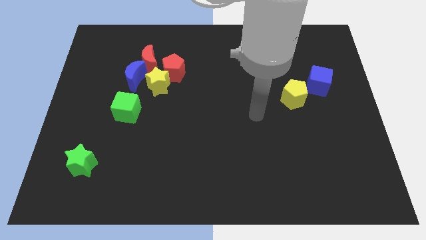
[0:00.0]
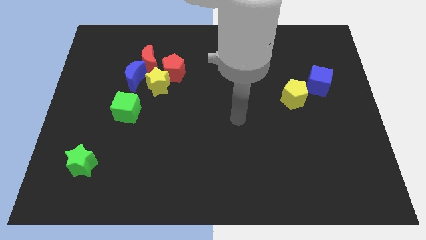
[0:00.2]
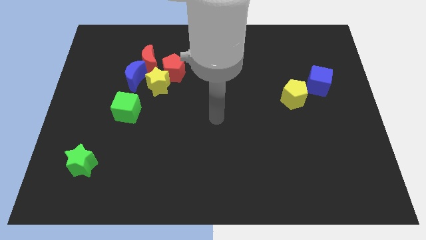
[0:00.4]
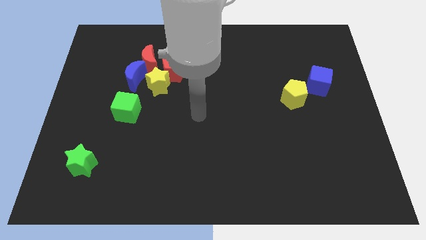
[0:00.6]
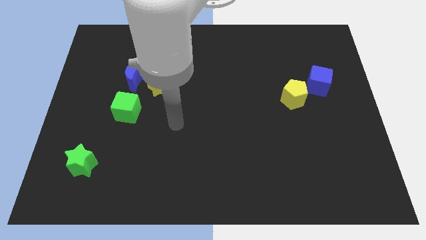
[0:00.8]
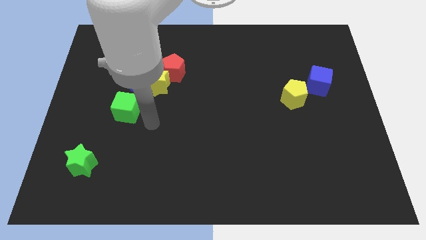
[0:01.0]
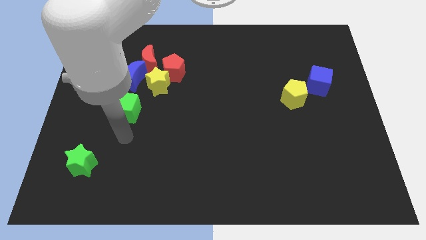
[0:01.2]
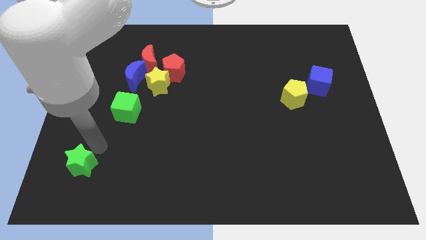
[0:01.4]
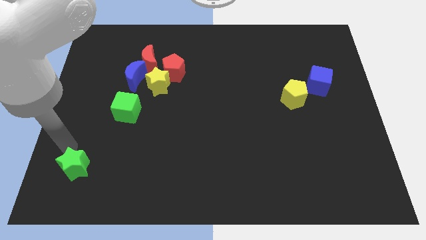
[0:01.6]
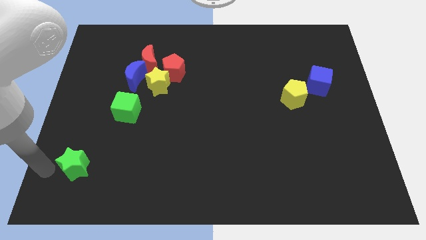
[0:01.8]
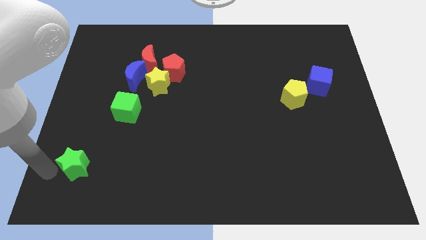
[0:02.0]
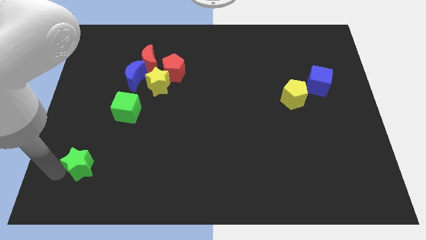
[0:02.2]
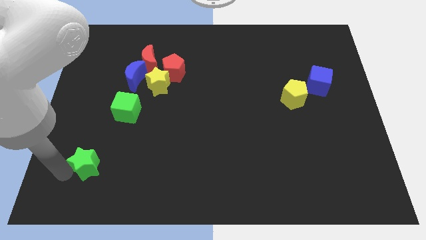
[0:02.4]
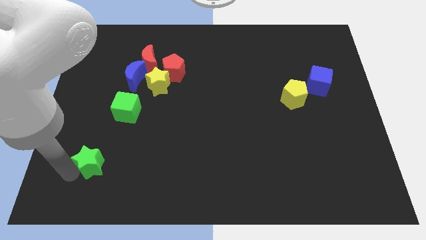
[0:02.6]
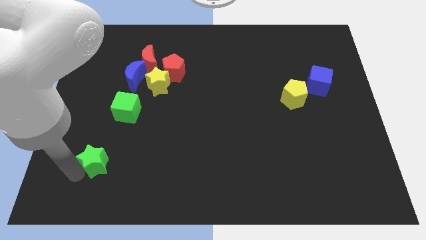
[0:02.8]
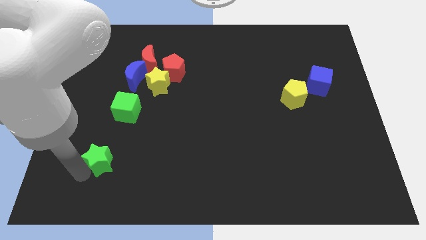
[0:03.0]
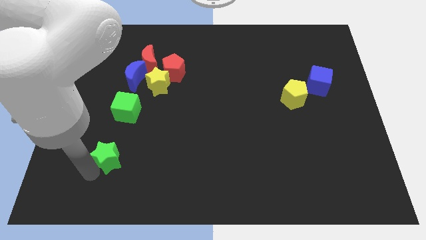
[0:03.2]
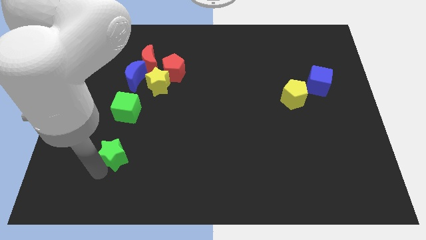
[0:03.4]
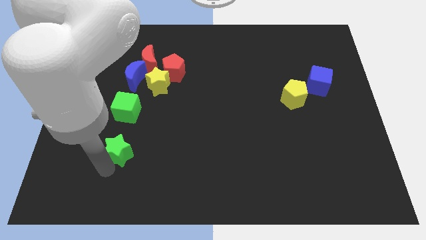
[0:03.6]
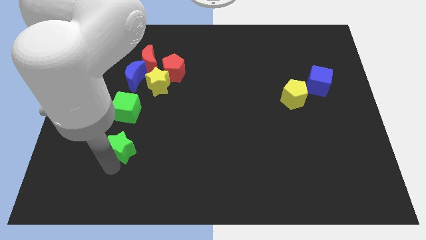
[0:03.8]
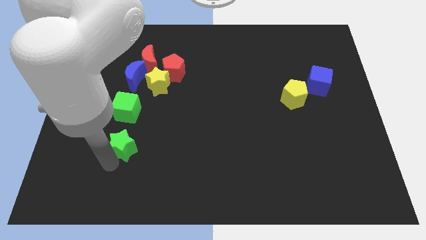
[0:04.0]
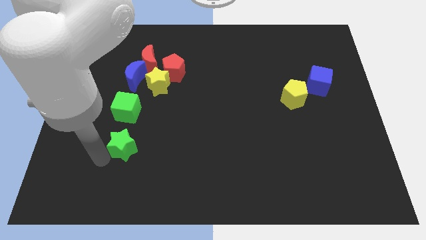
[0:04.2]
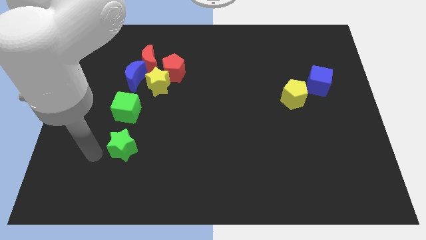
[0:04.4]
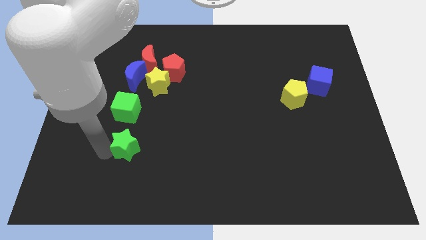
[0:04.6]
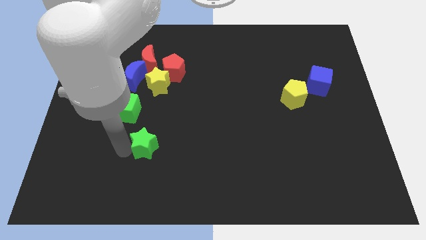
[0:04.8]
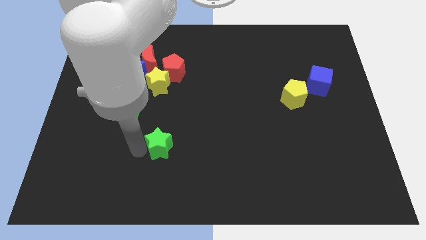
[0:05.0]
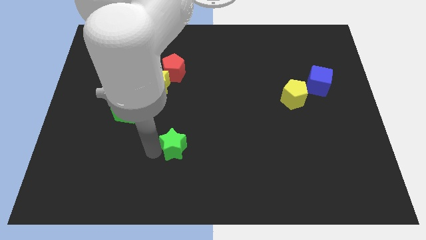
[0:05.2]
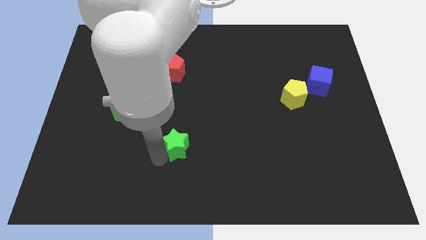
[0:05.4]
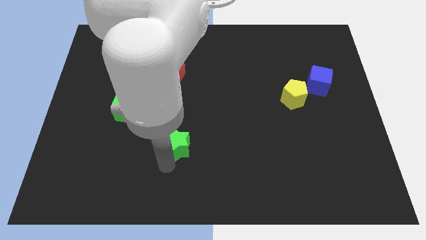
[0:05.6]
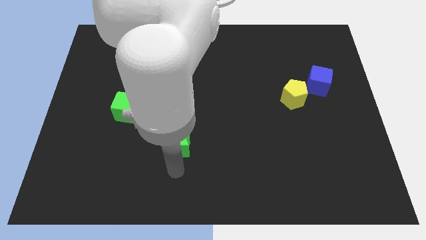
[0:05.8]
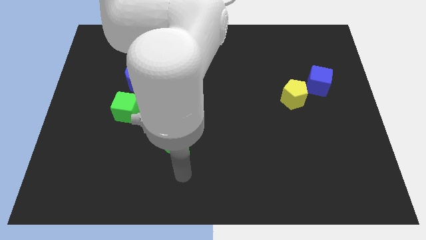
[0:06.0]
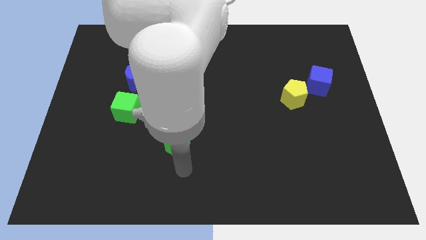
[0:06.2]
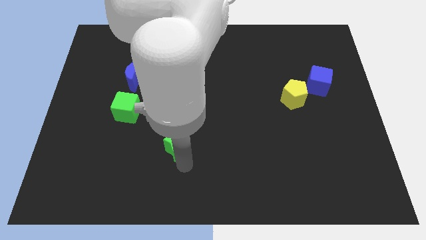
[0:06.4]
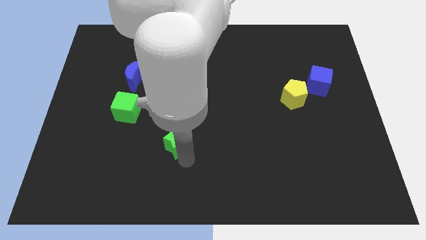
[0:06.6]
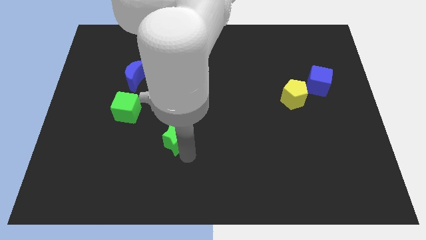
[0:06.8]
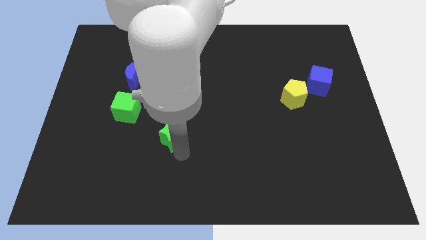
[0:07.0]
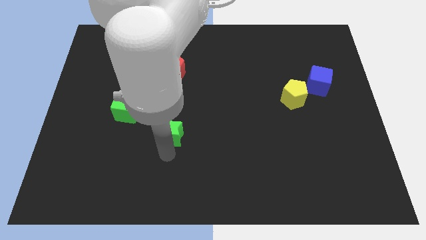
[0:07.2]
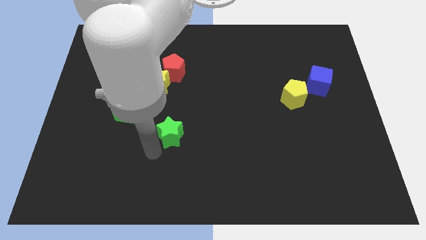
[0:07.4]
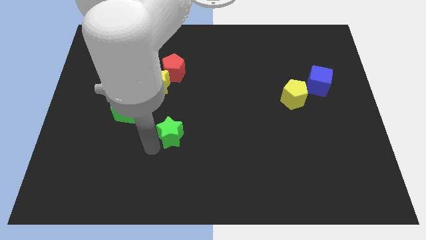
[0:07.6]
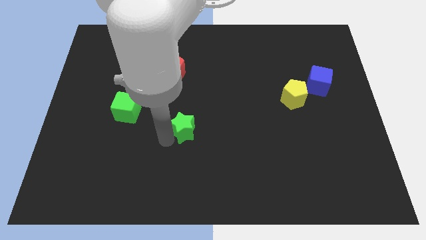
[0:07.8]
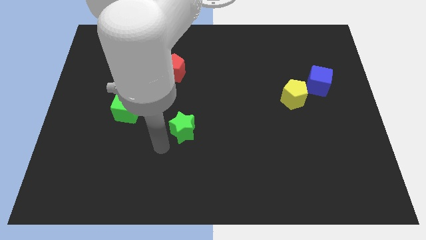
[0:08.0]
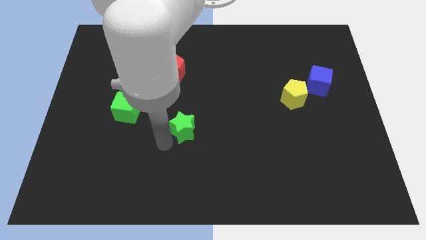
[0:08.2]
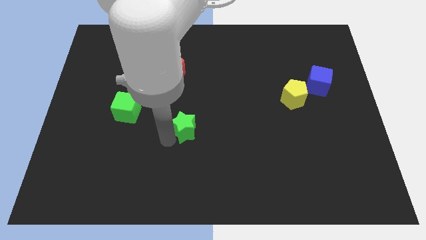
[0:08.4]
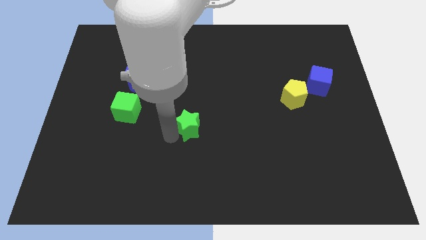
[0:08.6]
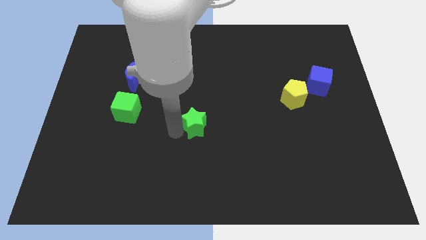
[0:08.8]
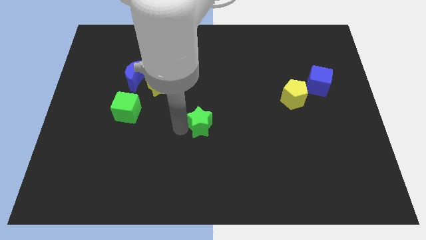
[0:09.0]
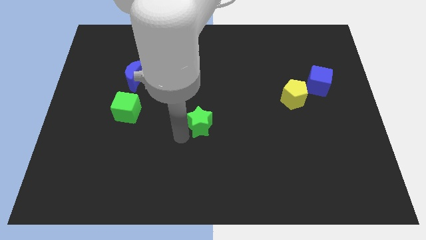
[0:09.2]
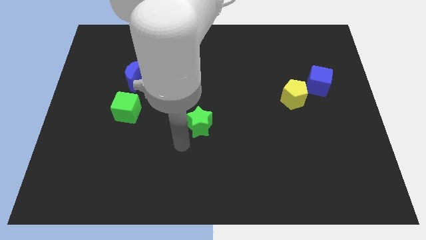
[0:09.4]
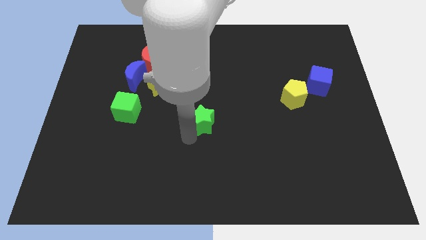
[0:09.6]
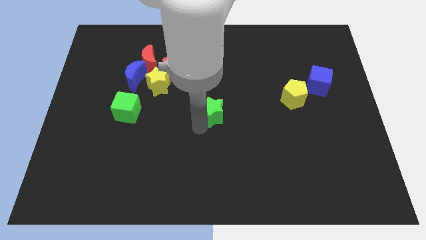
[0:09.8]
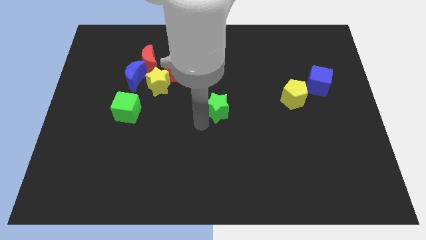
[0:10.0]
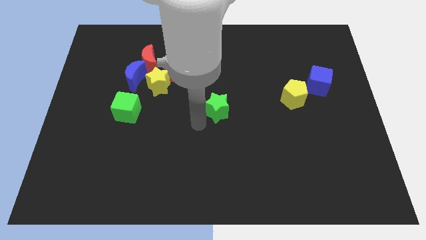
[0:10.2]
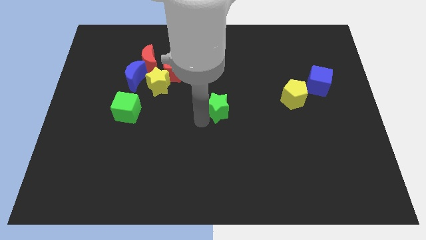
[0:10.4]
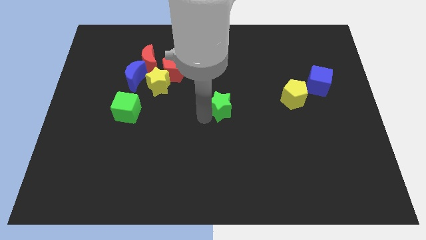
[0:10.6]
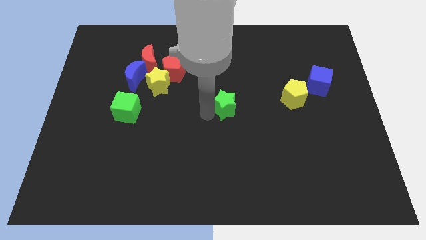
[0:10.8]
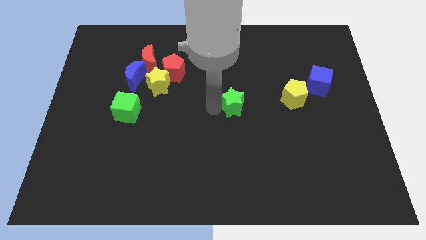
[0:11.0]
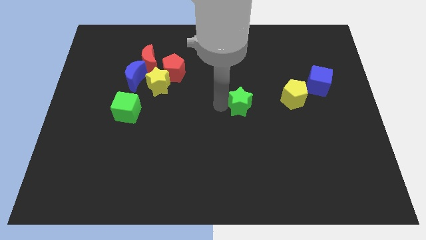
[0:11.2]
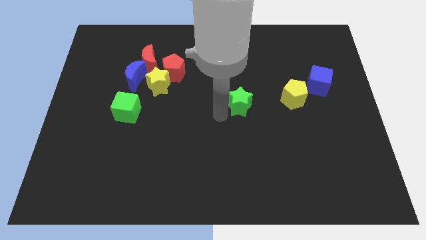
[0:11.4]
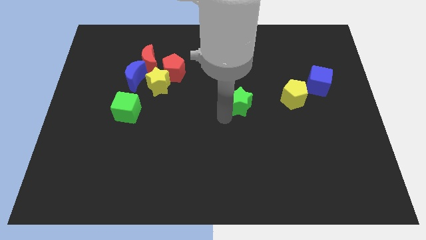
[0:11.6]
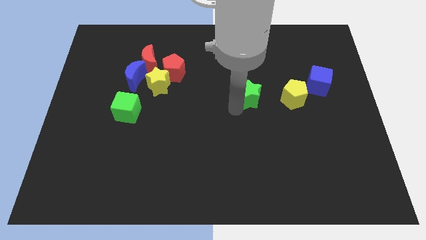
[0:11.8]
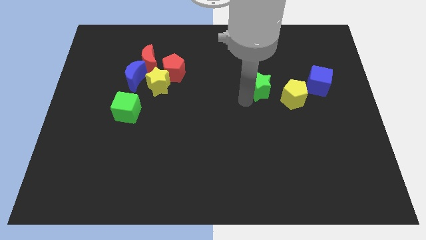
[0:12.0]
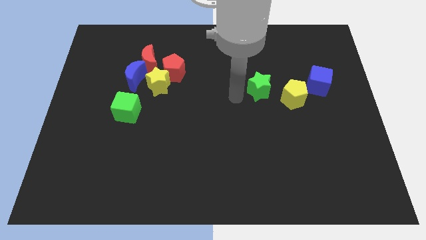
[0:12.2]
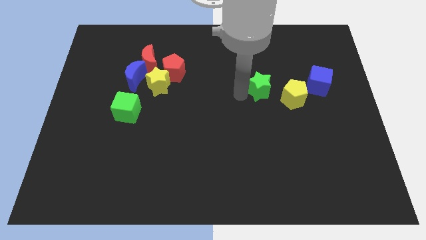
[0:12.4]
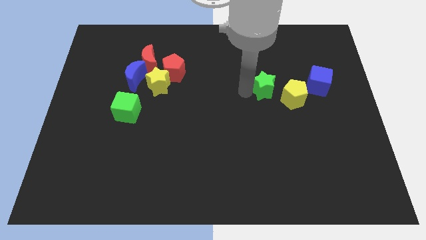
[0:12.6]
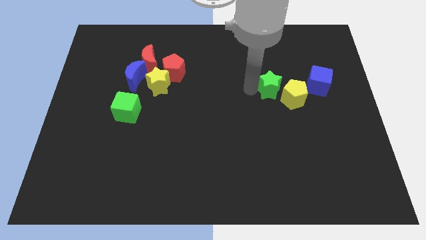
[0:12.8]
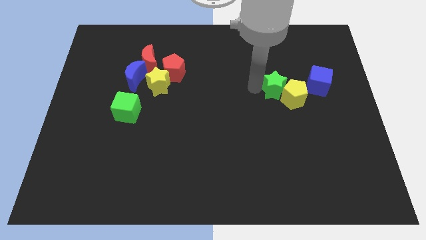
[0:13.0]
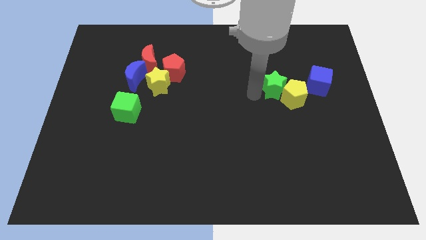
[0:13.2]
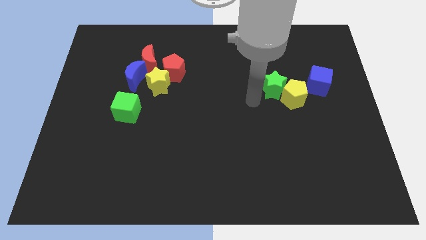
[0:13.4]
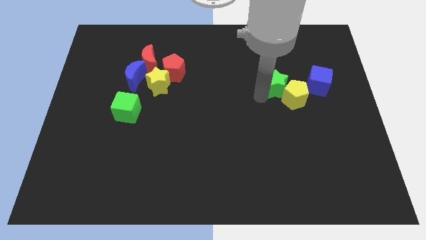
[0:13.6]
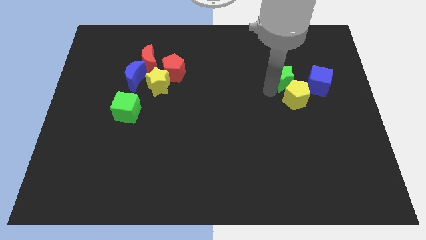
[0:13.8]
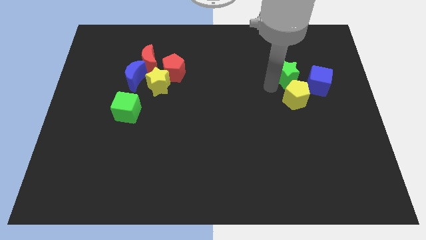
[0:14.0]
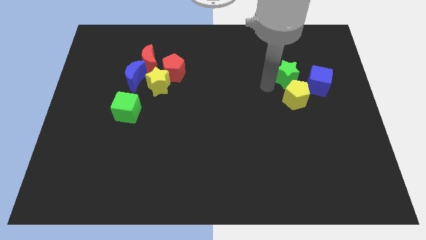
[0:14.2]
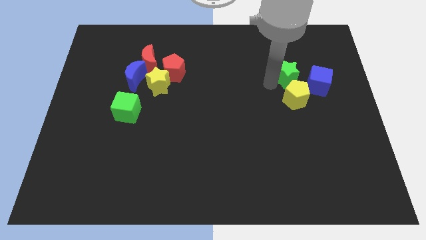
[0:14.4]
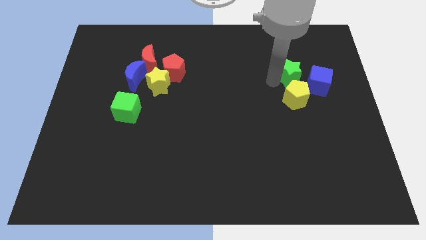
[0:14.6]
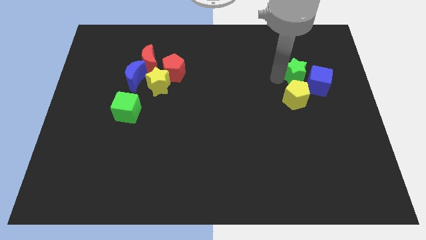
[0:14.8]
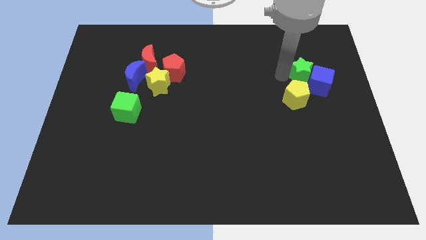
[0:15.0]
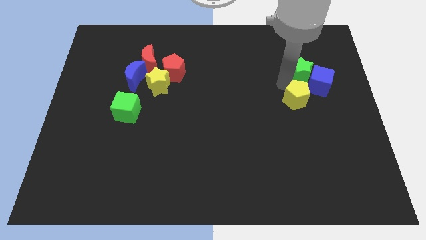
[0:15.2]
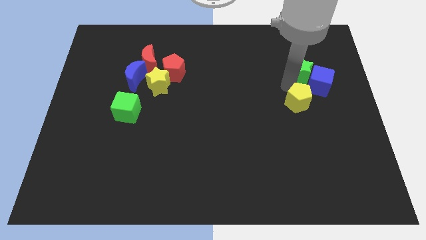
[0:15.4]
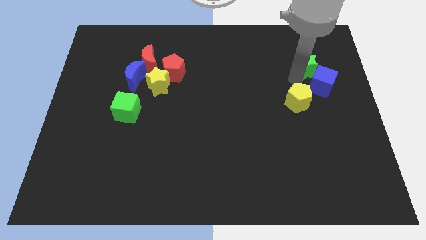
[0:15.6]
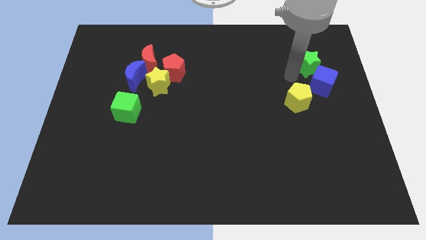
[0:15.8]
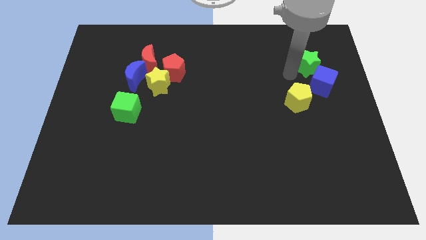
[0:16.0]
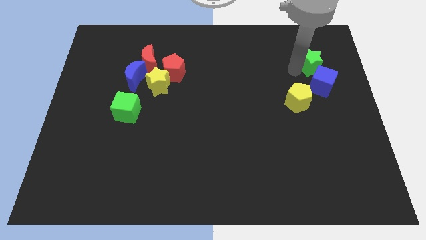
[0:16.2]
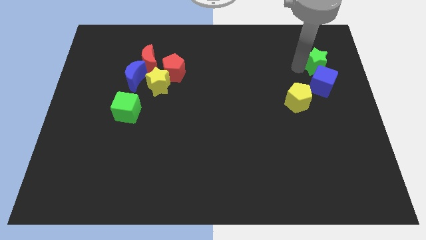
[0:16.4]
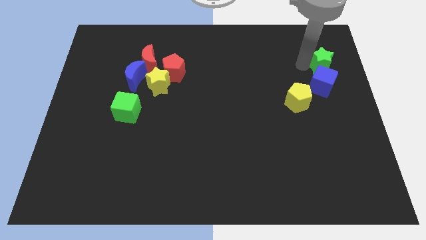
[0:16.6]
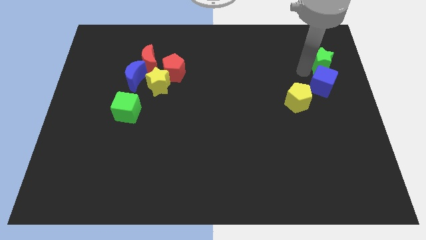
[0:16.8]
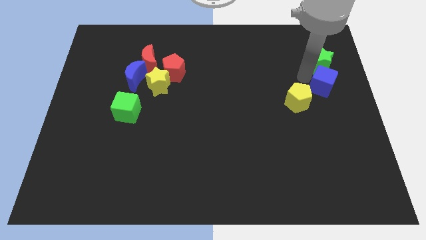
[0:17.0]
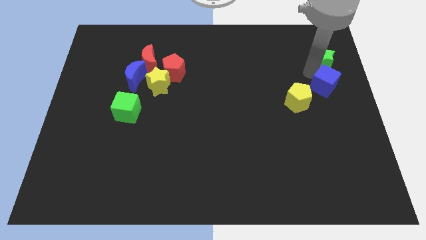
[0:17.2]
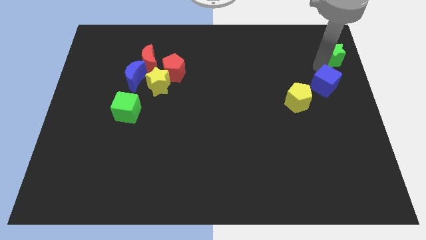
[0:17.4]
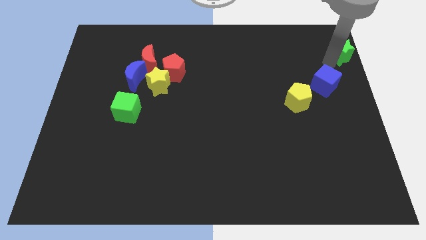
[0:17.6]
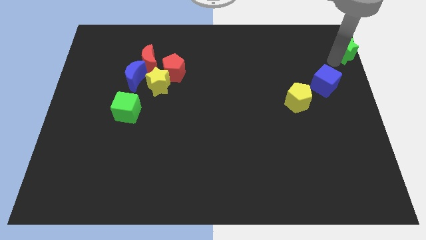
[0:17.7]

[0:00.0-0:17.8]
put the green star to the top right corner
